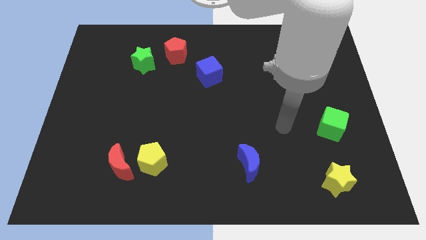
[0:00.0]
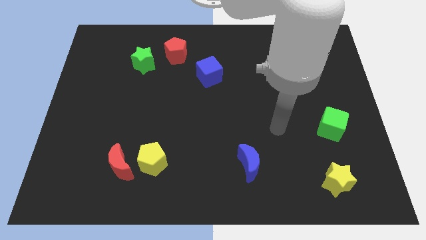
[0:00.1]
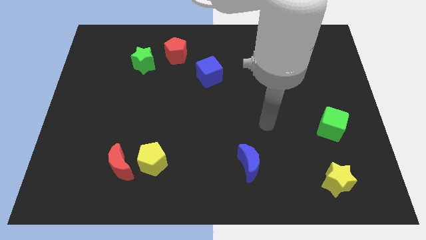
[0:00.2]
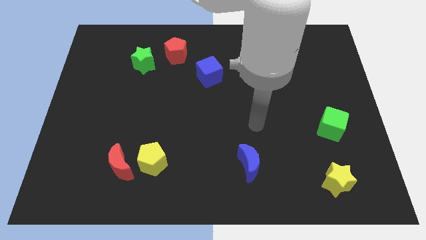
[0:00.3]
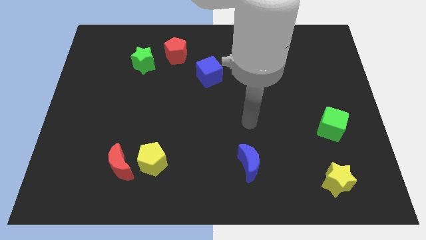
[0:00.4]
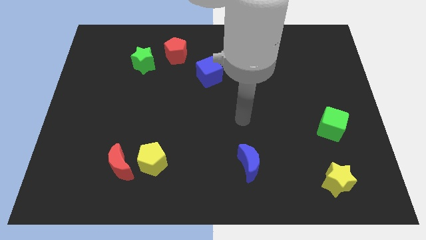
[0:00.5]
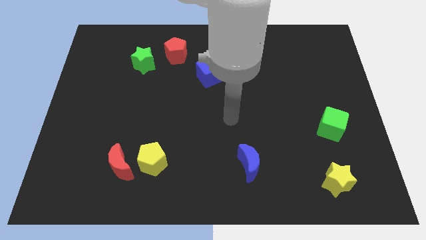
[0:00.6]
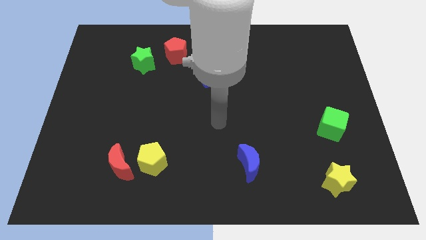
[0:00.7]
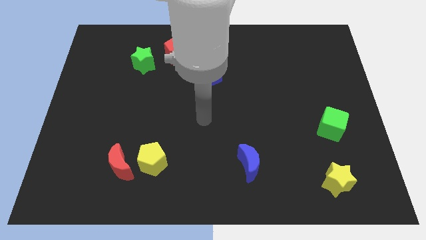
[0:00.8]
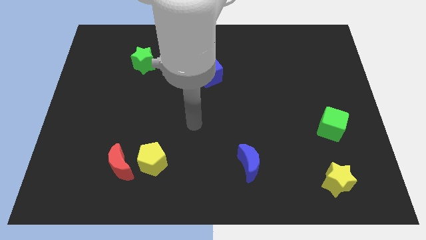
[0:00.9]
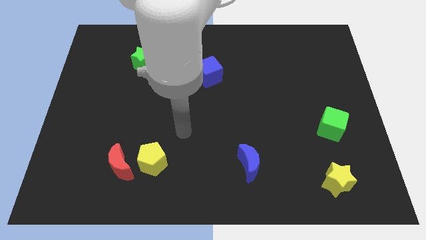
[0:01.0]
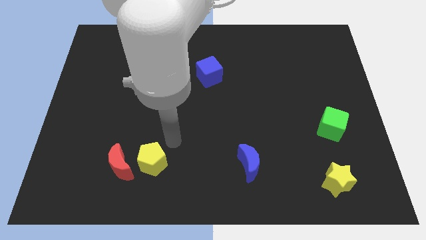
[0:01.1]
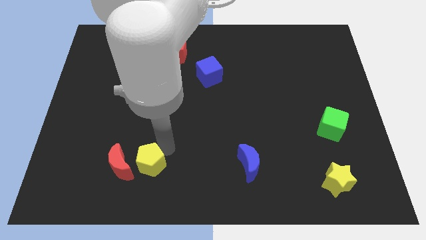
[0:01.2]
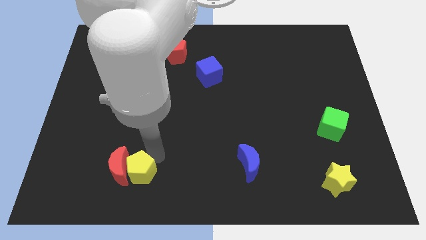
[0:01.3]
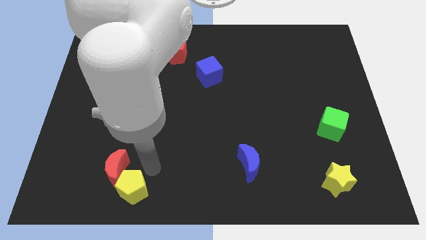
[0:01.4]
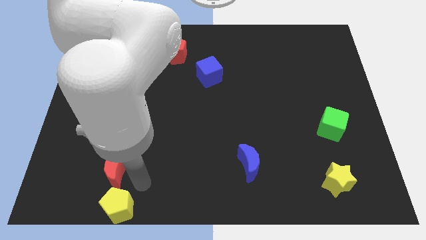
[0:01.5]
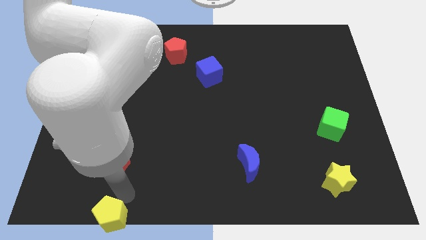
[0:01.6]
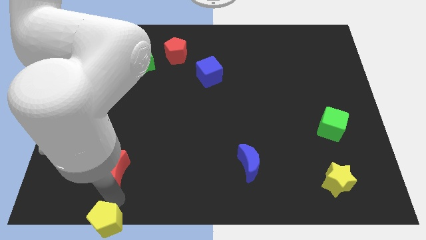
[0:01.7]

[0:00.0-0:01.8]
pull the red moon apart from the yellow pentagon

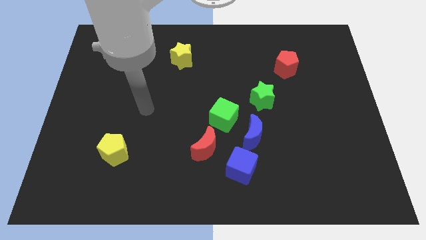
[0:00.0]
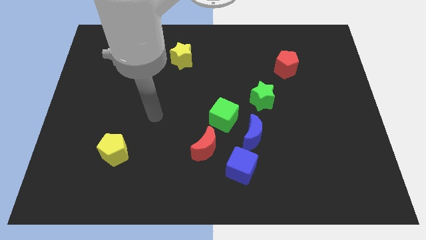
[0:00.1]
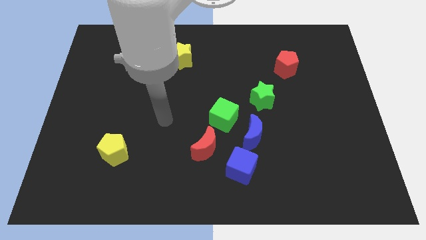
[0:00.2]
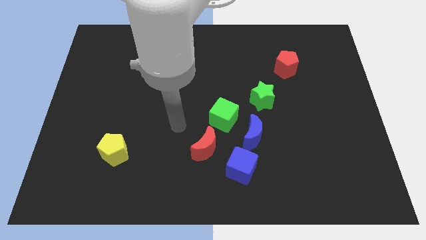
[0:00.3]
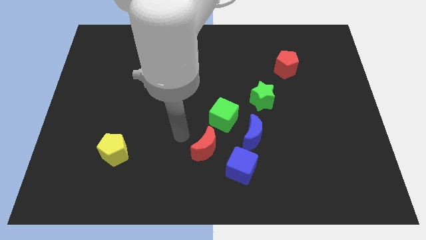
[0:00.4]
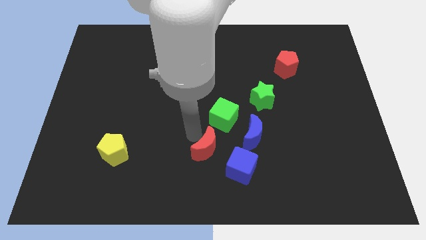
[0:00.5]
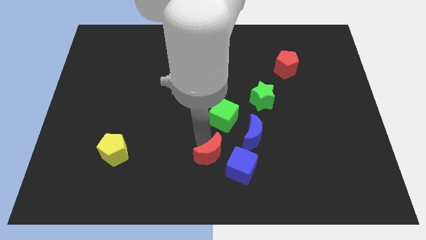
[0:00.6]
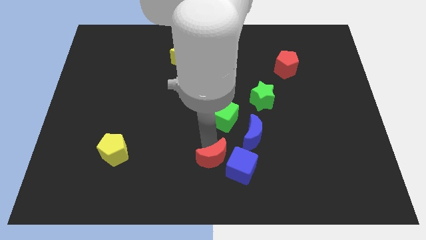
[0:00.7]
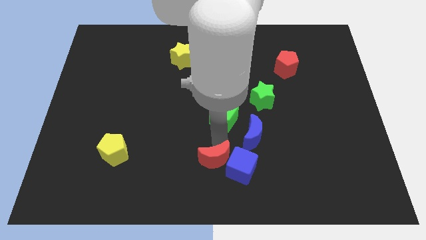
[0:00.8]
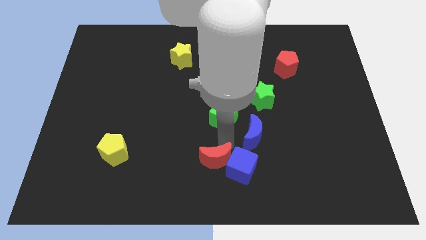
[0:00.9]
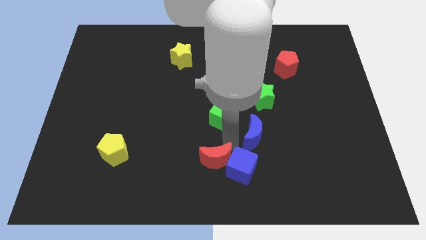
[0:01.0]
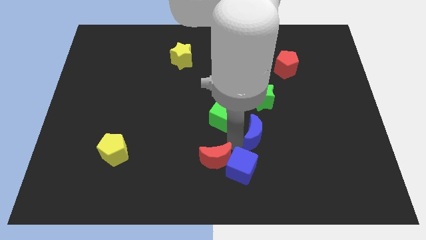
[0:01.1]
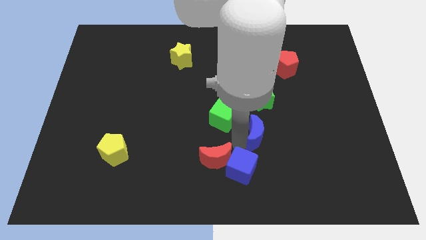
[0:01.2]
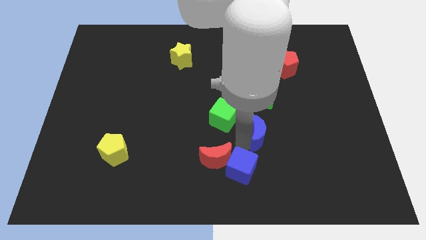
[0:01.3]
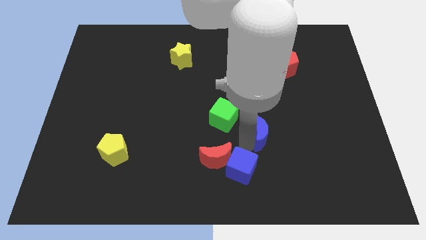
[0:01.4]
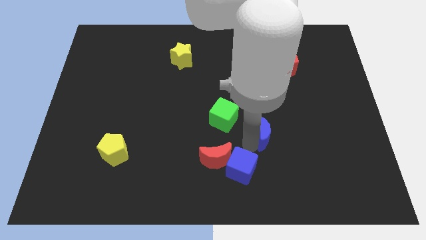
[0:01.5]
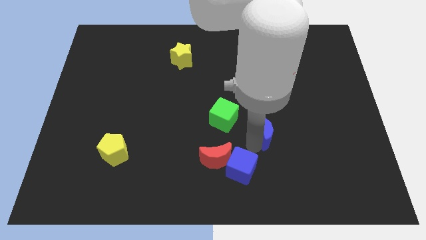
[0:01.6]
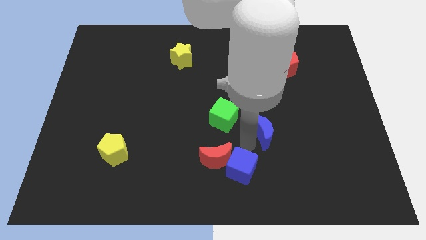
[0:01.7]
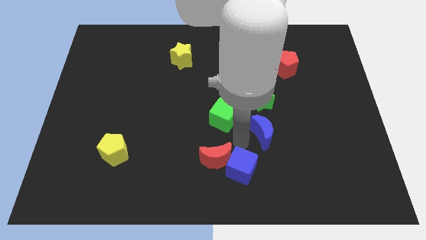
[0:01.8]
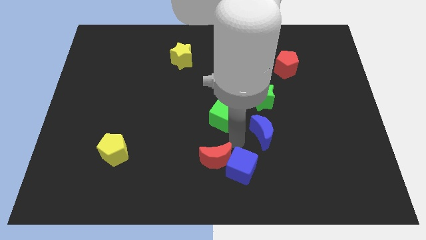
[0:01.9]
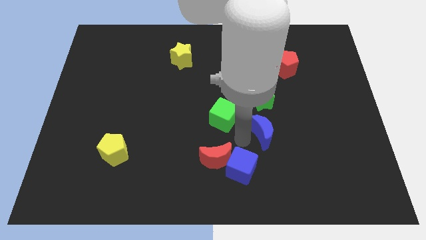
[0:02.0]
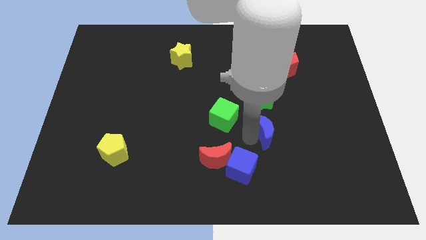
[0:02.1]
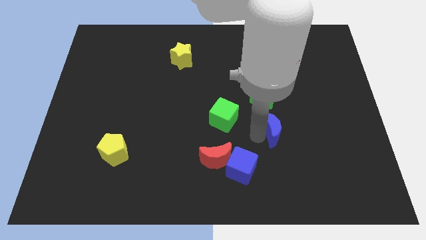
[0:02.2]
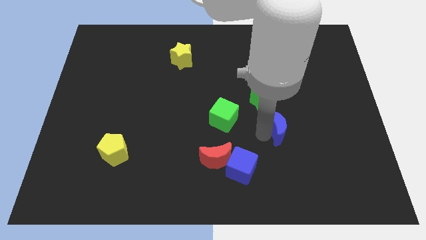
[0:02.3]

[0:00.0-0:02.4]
separate the blue moon from the green cube and blue cube

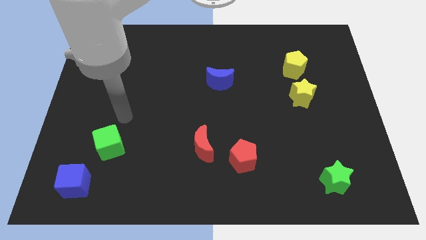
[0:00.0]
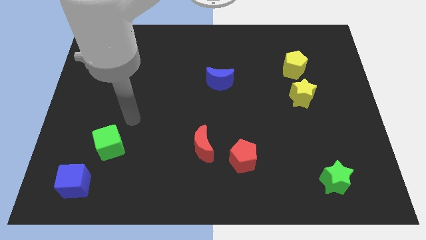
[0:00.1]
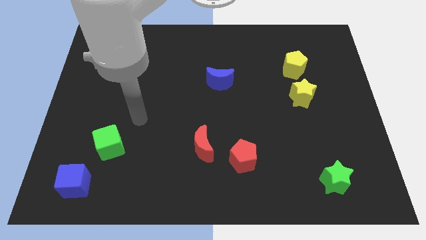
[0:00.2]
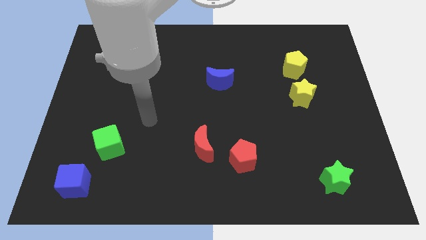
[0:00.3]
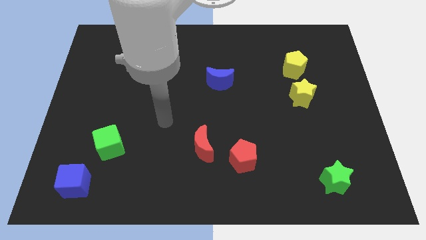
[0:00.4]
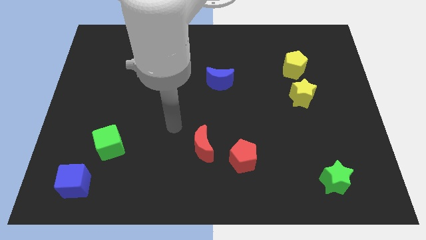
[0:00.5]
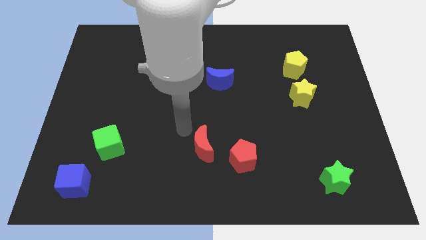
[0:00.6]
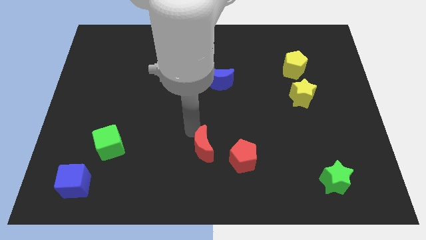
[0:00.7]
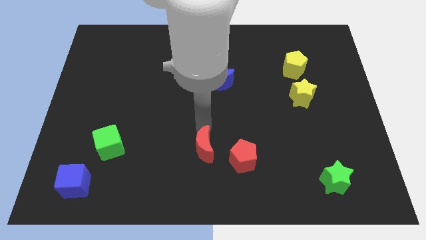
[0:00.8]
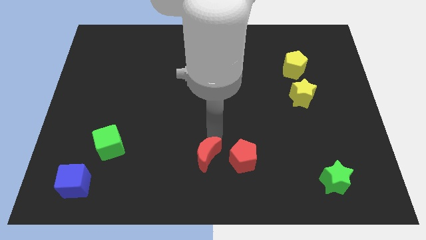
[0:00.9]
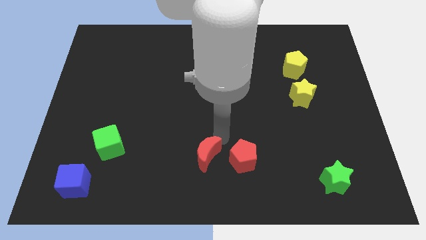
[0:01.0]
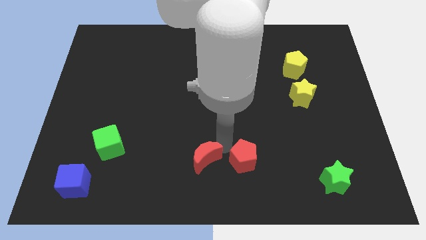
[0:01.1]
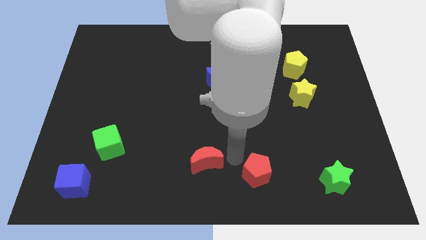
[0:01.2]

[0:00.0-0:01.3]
move the red moon away from the red pentagon

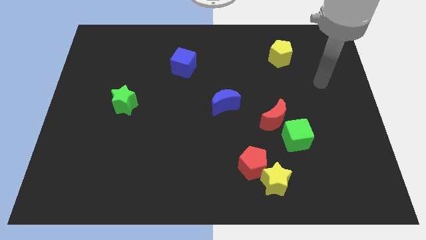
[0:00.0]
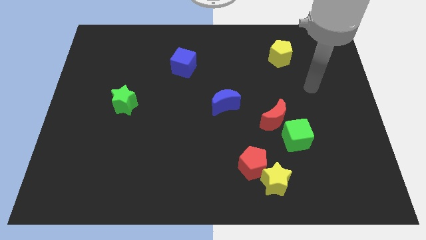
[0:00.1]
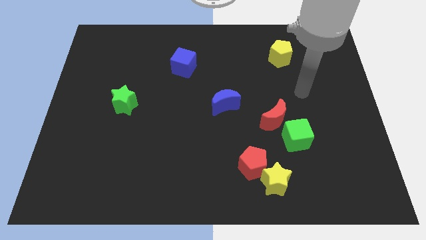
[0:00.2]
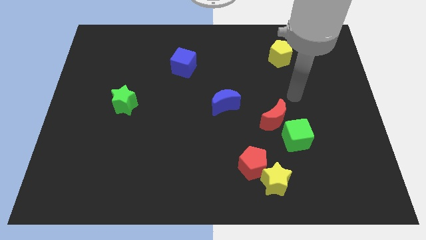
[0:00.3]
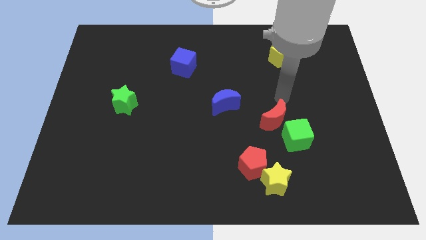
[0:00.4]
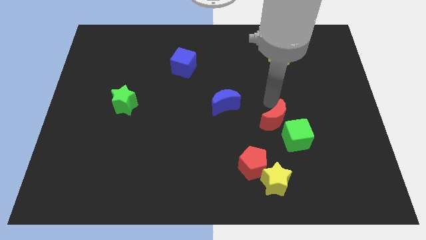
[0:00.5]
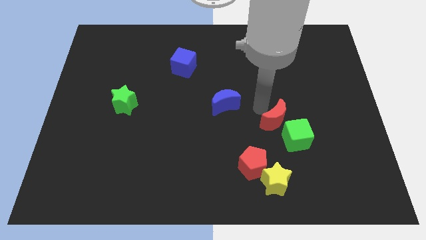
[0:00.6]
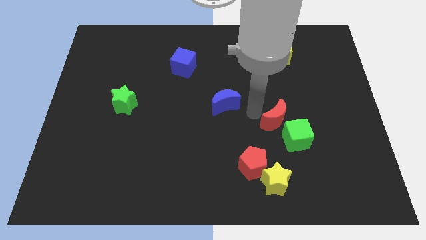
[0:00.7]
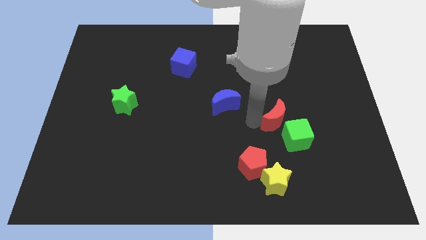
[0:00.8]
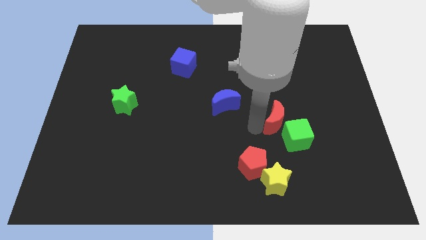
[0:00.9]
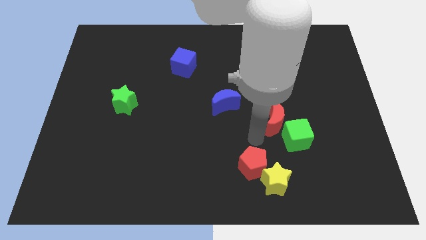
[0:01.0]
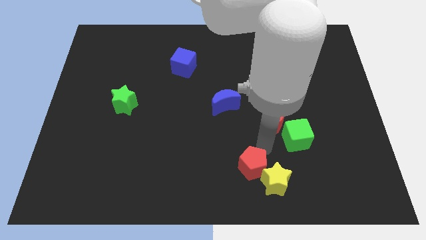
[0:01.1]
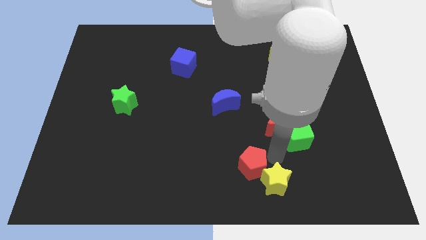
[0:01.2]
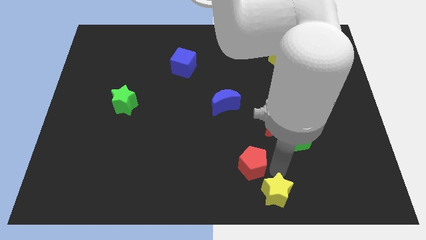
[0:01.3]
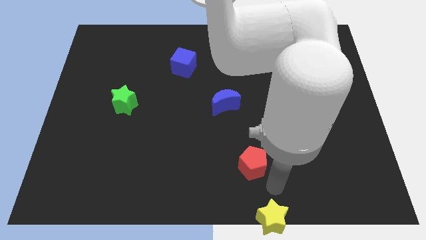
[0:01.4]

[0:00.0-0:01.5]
move the red pentagon away from the yellow star

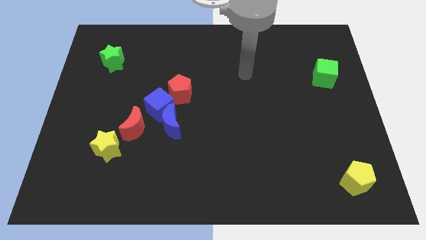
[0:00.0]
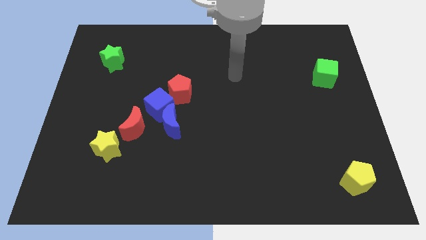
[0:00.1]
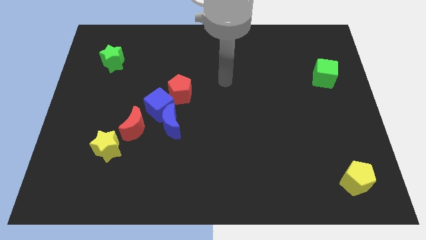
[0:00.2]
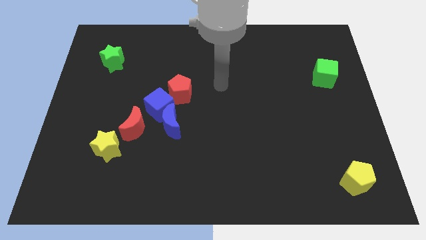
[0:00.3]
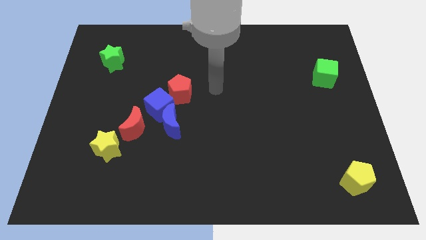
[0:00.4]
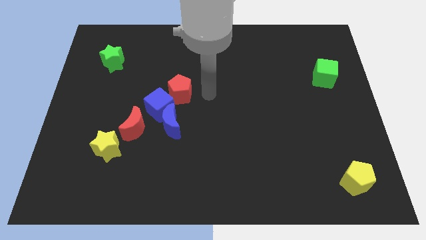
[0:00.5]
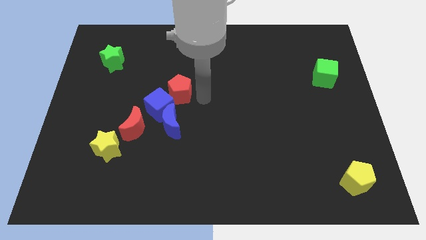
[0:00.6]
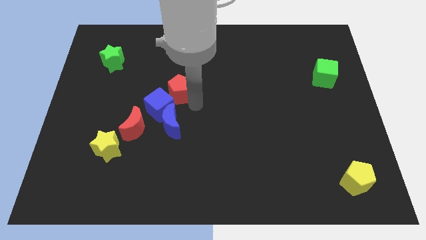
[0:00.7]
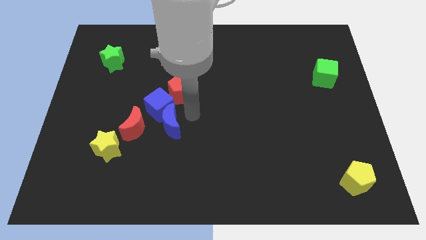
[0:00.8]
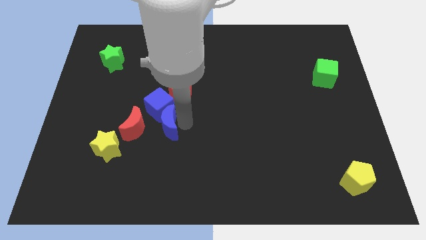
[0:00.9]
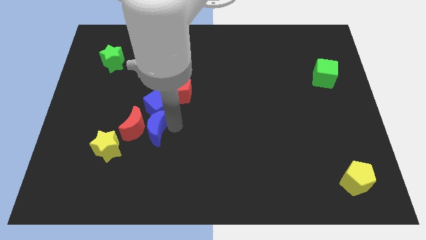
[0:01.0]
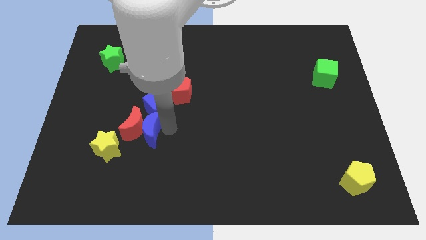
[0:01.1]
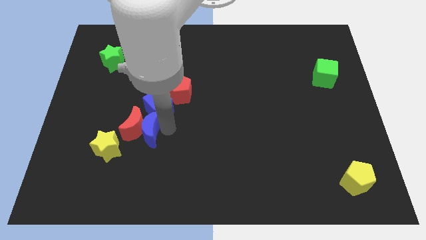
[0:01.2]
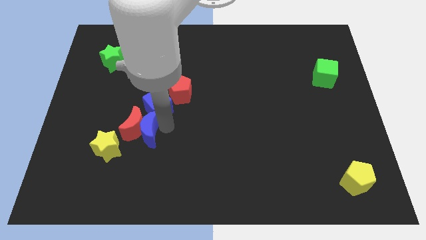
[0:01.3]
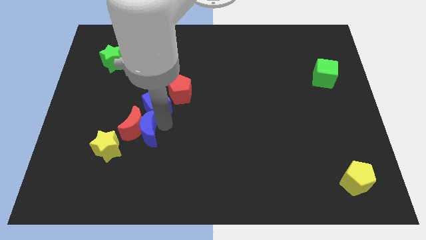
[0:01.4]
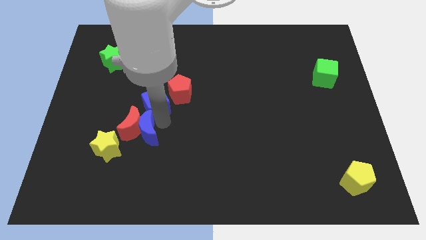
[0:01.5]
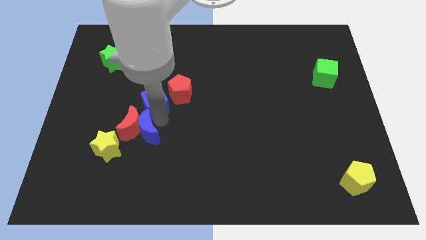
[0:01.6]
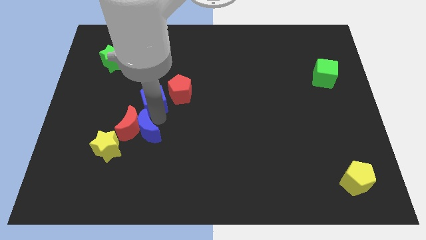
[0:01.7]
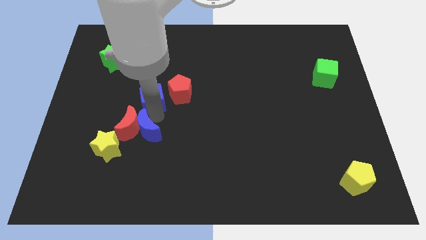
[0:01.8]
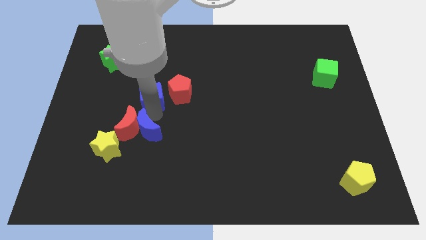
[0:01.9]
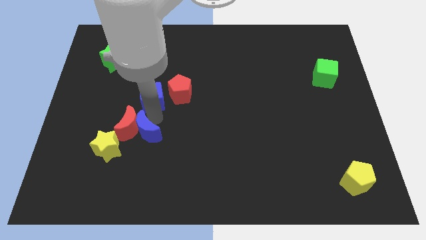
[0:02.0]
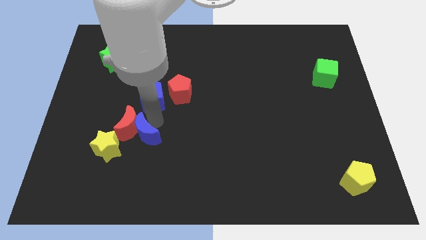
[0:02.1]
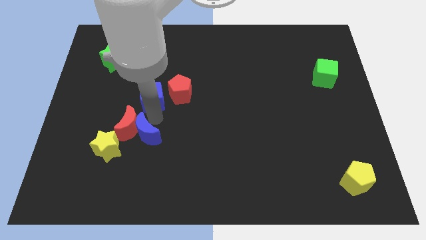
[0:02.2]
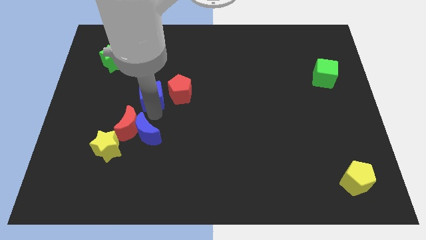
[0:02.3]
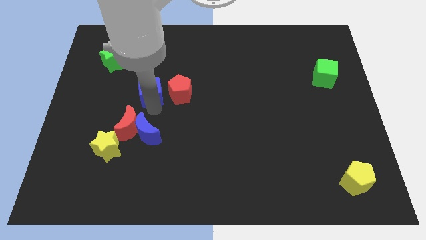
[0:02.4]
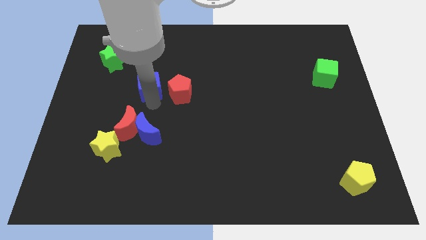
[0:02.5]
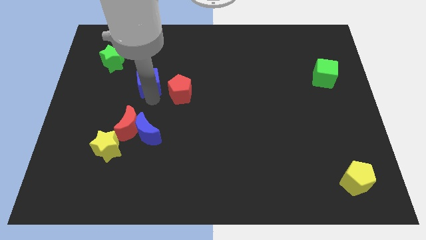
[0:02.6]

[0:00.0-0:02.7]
separate the blue cube from the blue moon, red pentagon, and red moon
